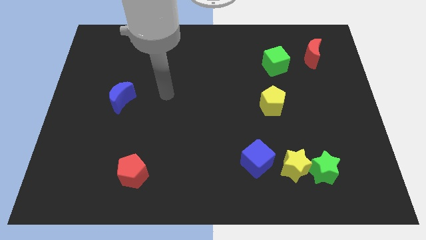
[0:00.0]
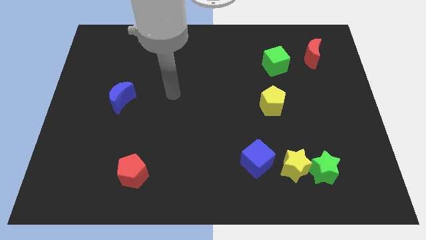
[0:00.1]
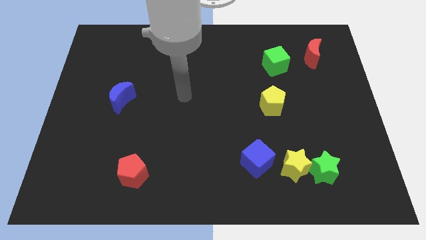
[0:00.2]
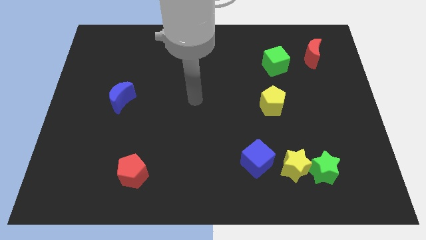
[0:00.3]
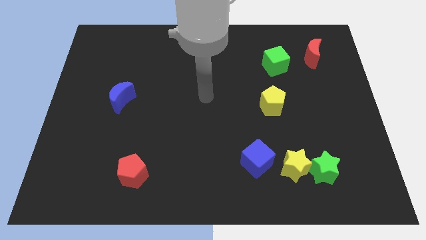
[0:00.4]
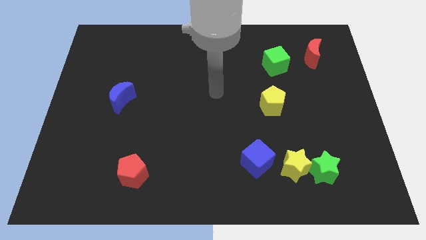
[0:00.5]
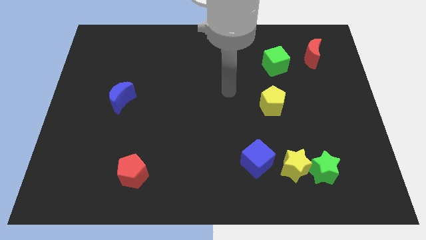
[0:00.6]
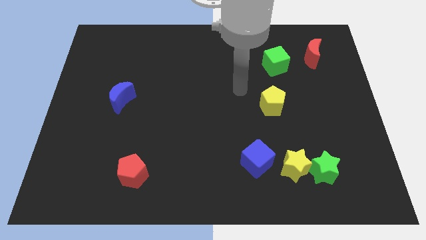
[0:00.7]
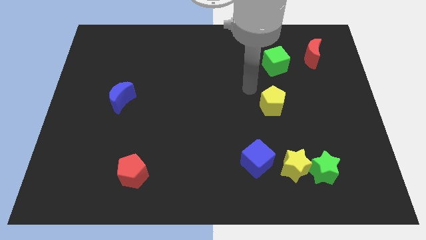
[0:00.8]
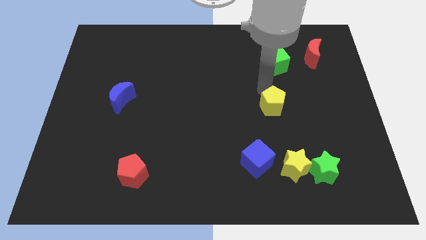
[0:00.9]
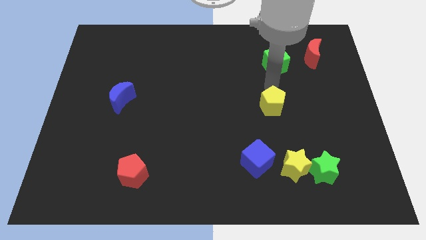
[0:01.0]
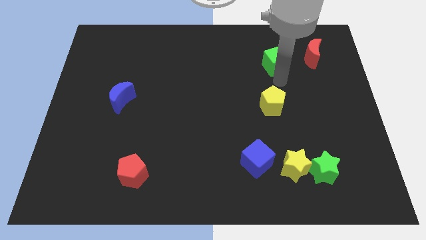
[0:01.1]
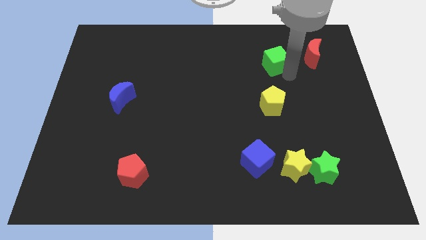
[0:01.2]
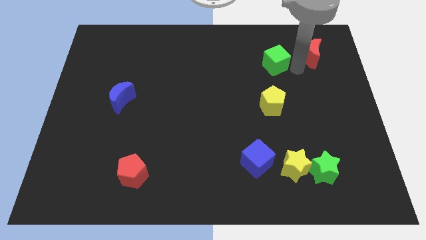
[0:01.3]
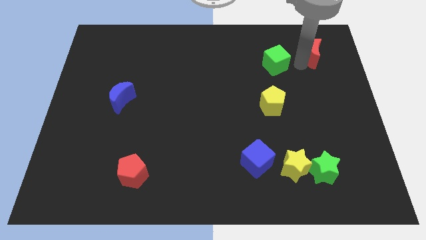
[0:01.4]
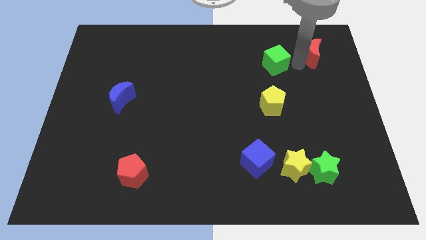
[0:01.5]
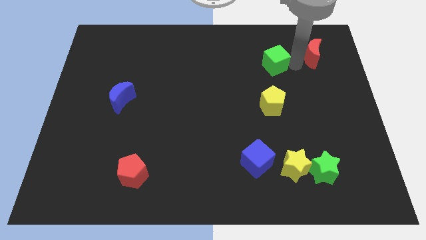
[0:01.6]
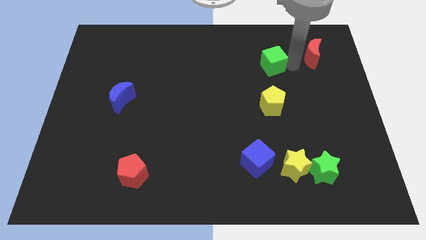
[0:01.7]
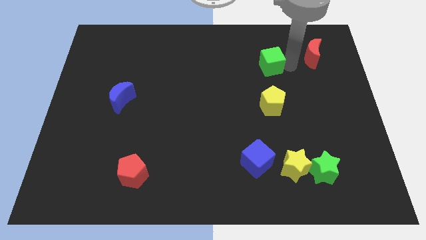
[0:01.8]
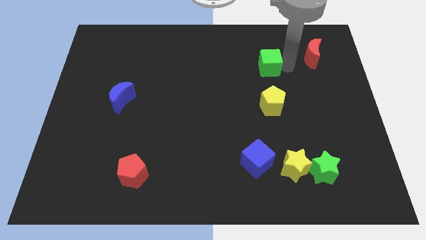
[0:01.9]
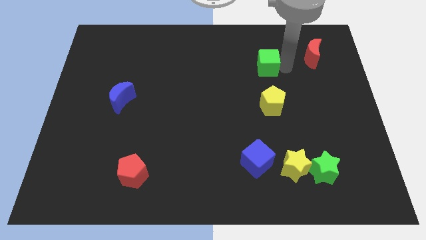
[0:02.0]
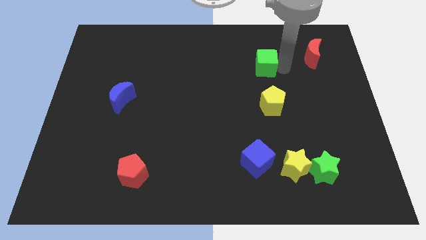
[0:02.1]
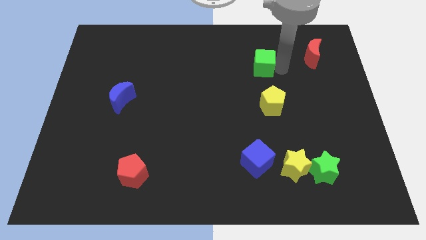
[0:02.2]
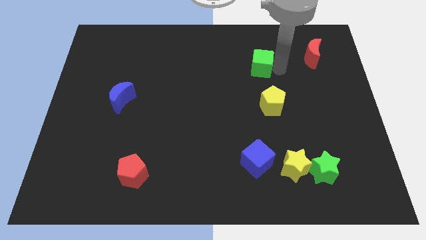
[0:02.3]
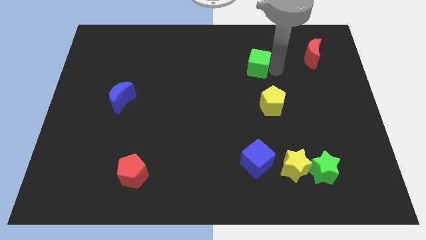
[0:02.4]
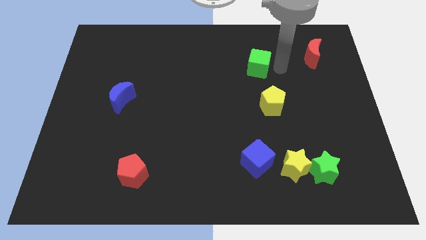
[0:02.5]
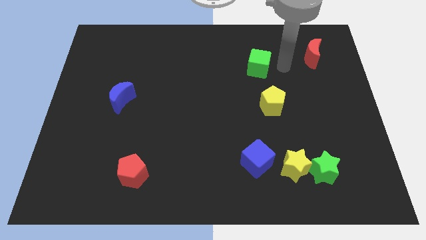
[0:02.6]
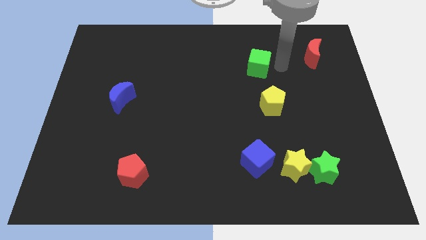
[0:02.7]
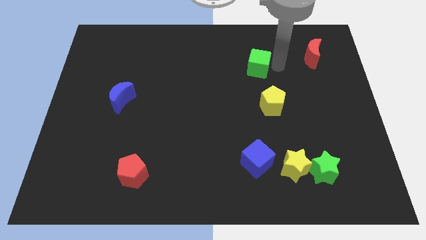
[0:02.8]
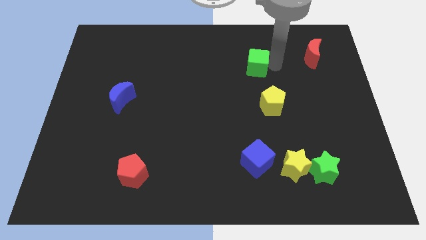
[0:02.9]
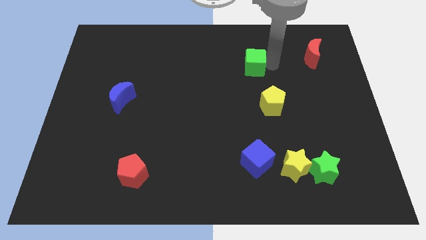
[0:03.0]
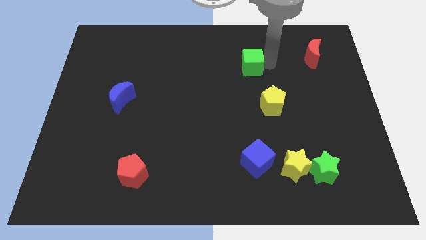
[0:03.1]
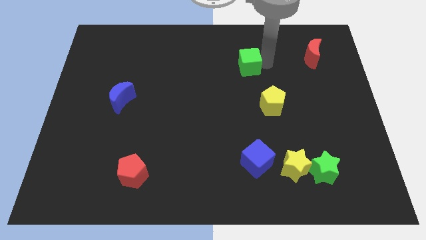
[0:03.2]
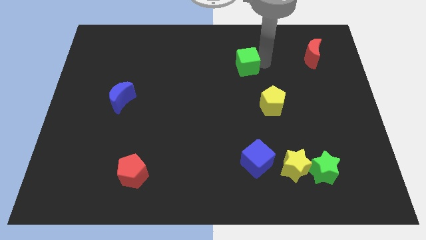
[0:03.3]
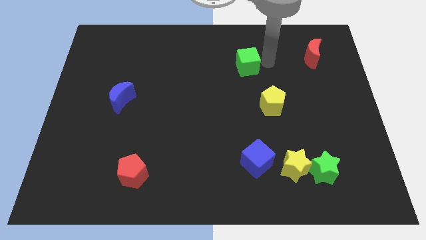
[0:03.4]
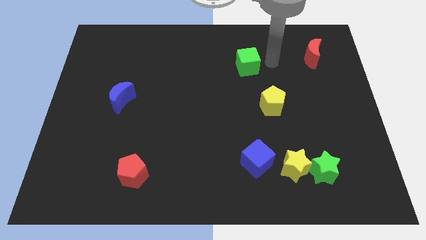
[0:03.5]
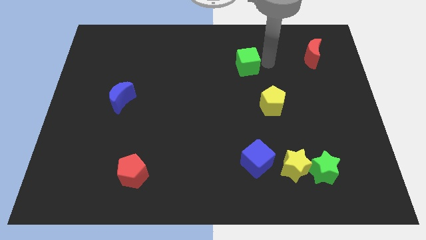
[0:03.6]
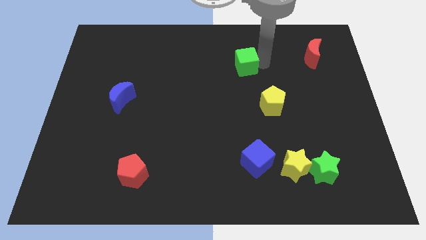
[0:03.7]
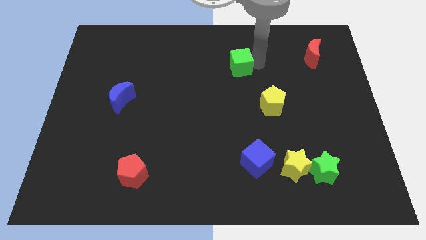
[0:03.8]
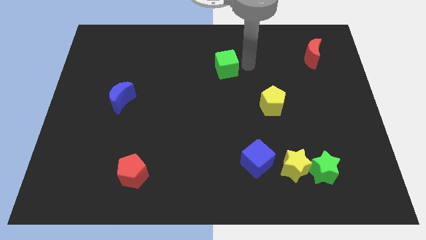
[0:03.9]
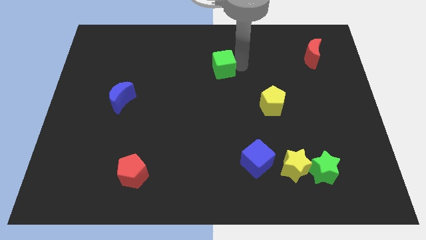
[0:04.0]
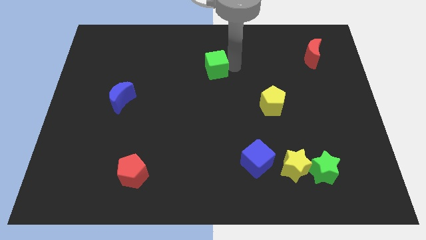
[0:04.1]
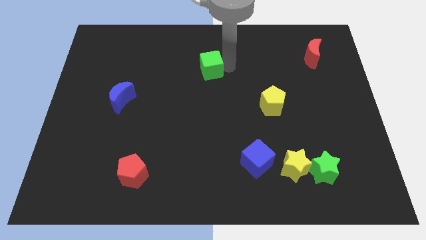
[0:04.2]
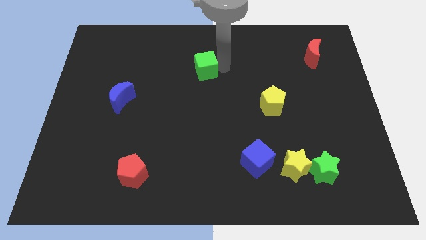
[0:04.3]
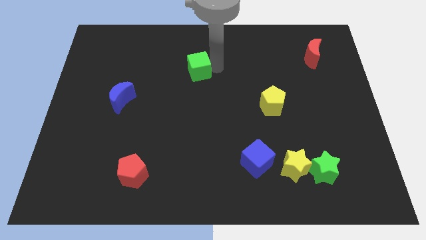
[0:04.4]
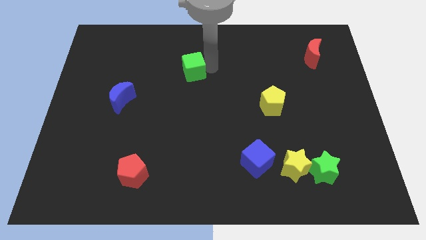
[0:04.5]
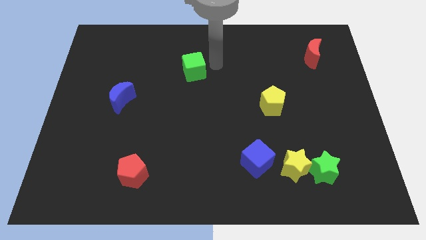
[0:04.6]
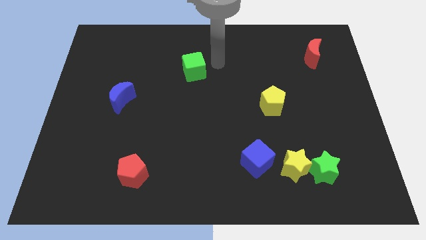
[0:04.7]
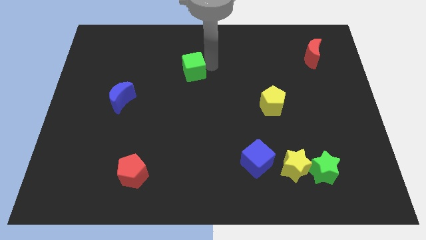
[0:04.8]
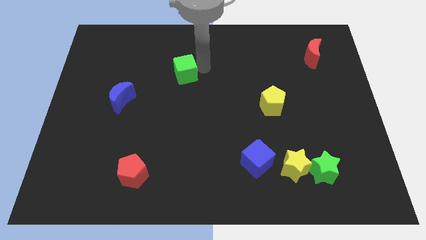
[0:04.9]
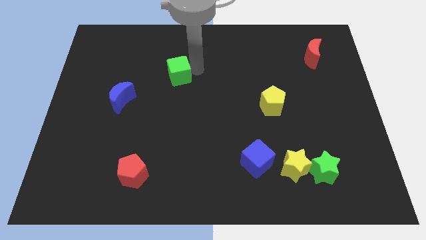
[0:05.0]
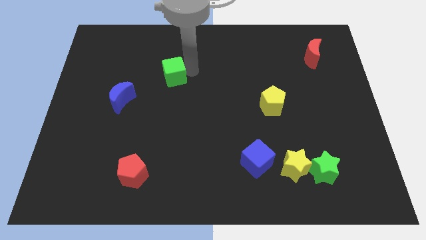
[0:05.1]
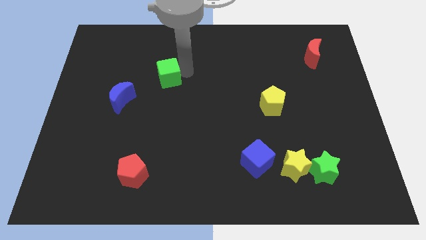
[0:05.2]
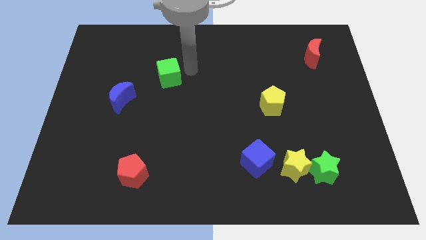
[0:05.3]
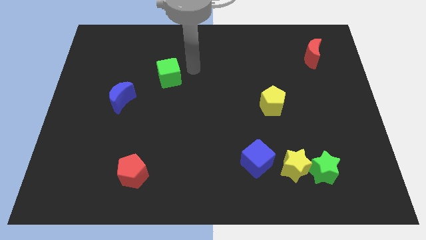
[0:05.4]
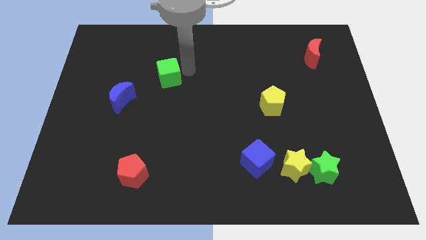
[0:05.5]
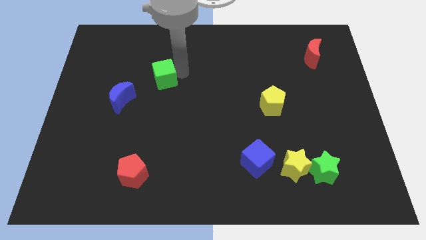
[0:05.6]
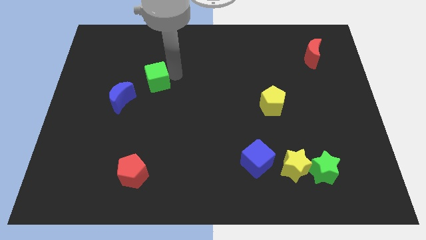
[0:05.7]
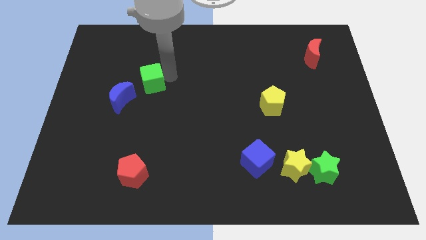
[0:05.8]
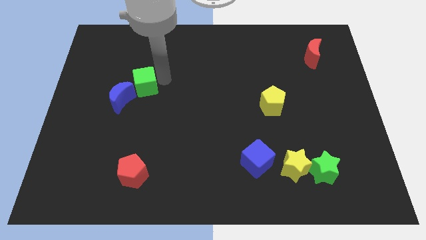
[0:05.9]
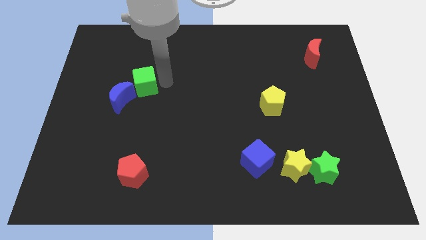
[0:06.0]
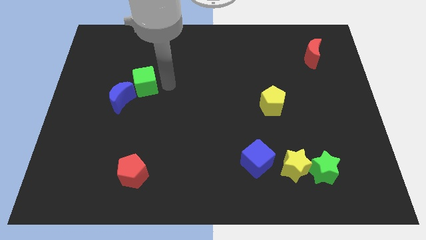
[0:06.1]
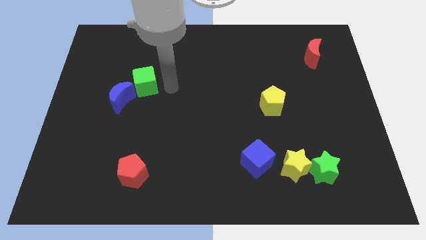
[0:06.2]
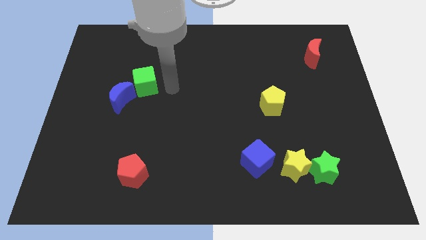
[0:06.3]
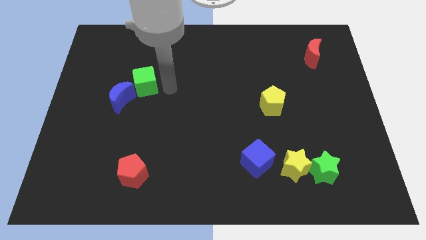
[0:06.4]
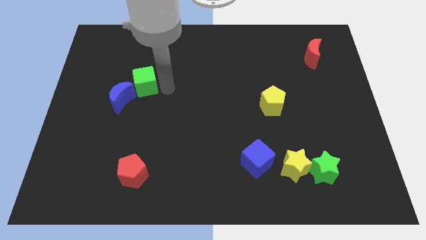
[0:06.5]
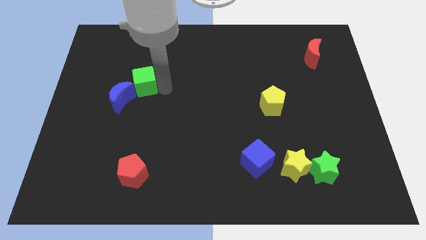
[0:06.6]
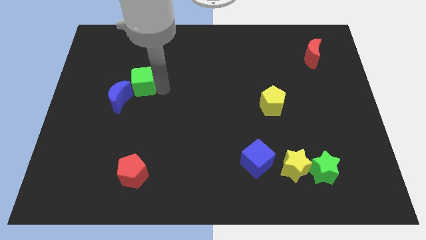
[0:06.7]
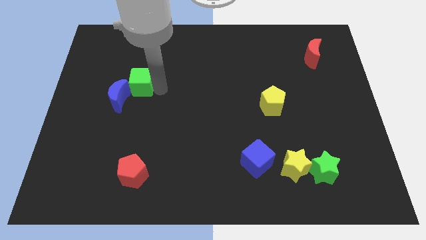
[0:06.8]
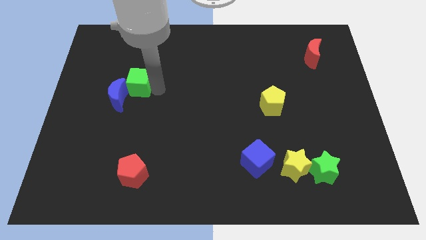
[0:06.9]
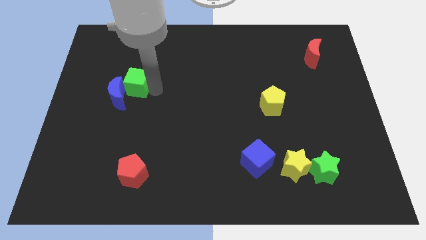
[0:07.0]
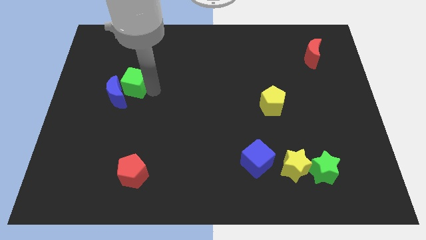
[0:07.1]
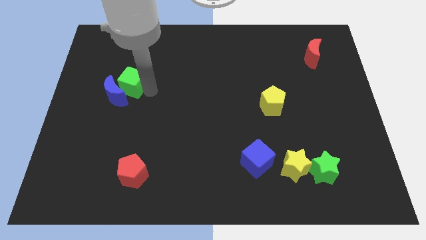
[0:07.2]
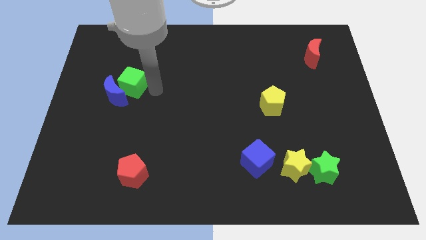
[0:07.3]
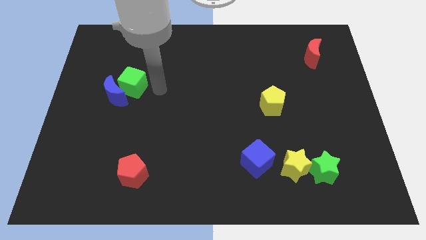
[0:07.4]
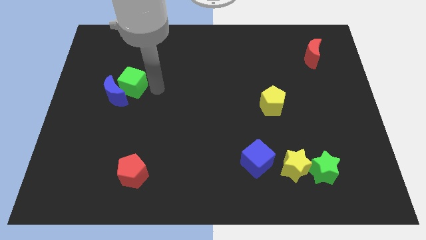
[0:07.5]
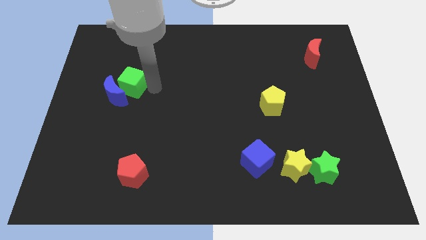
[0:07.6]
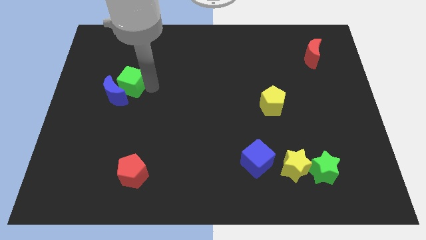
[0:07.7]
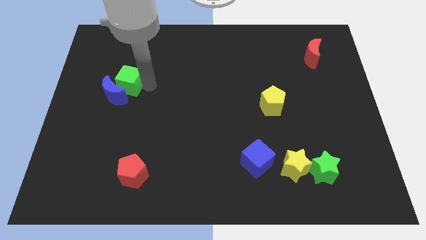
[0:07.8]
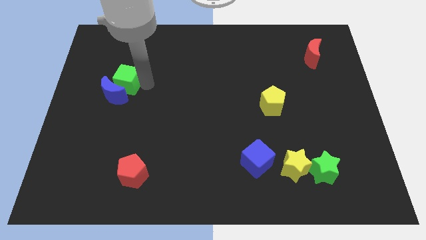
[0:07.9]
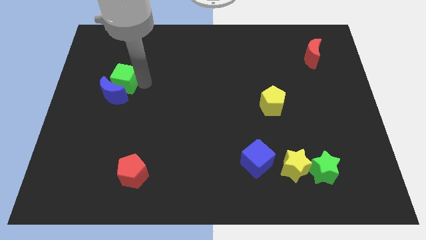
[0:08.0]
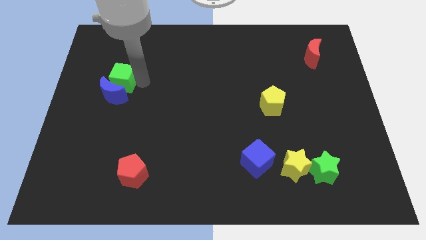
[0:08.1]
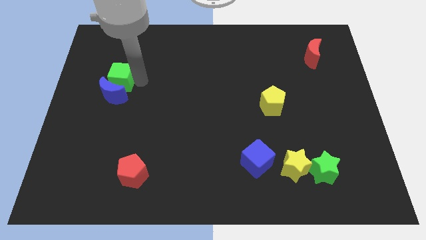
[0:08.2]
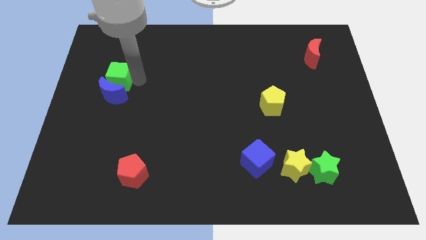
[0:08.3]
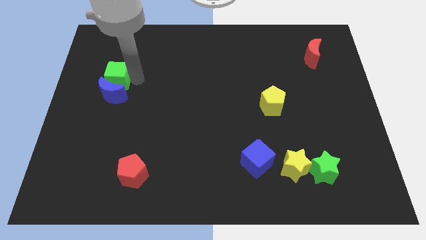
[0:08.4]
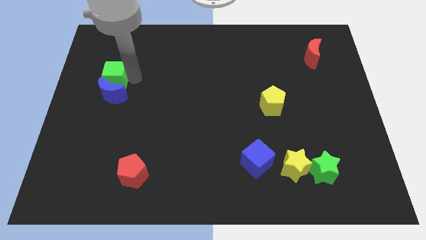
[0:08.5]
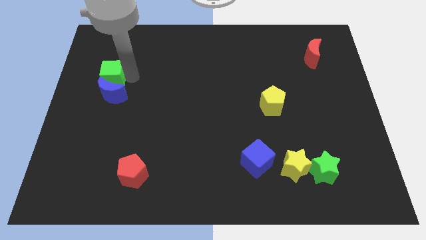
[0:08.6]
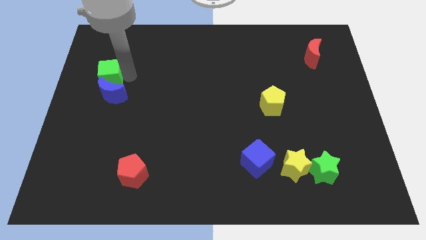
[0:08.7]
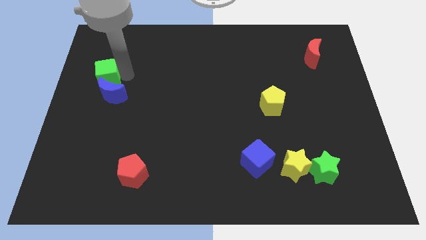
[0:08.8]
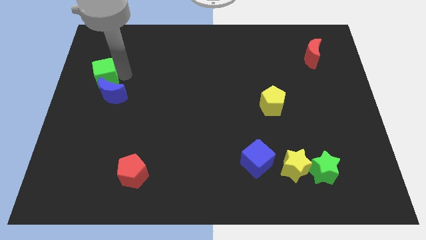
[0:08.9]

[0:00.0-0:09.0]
push the green cube to the left side of the board
